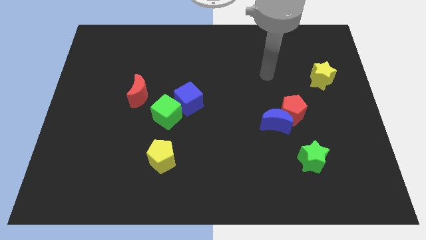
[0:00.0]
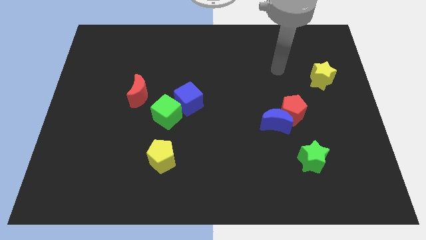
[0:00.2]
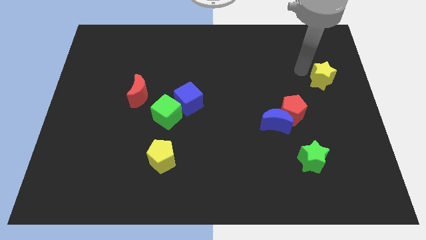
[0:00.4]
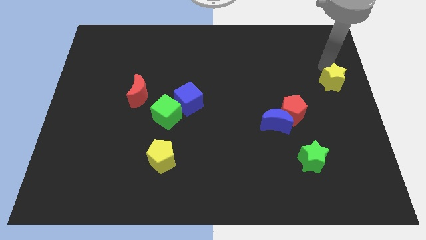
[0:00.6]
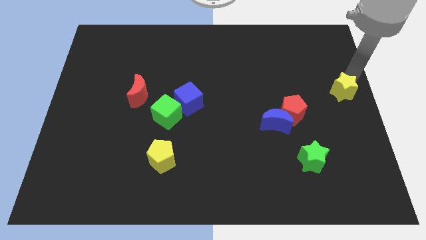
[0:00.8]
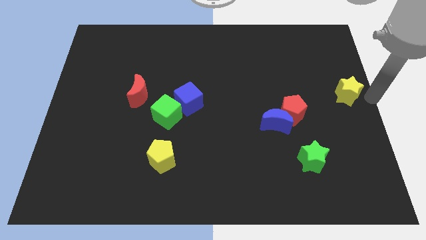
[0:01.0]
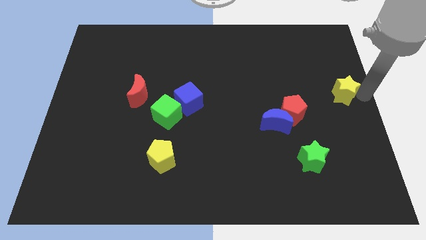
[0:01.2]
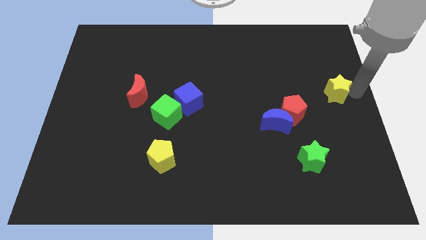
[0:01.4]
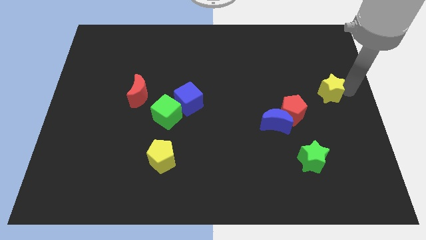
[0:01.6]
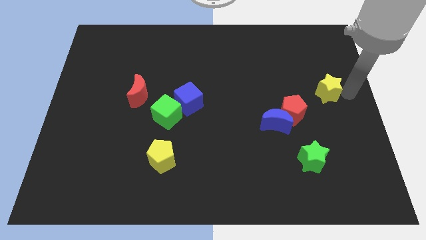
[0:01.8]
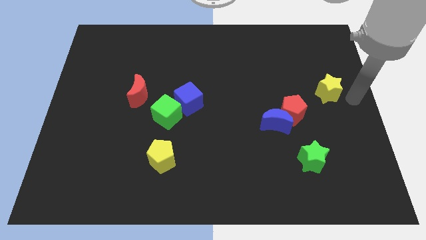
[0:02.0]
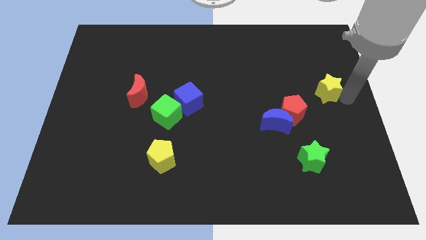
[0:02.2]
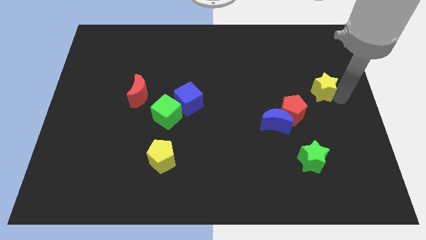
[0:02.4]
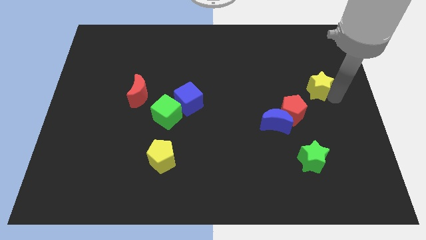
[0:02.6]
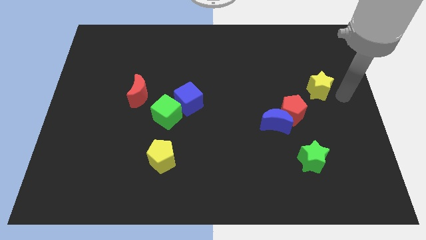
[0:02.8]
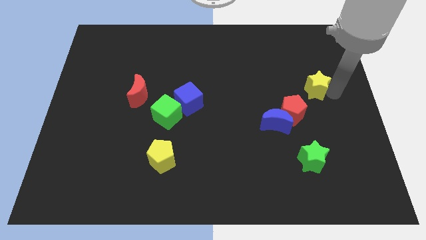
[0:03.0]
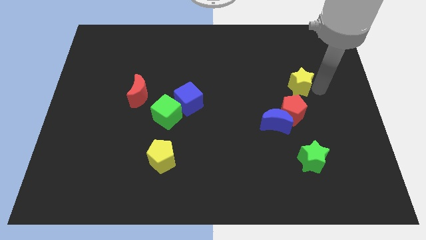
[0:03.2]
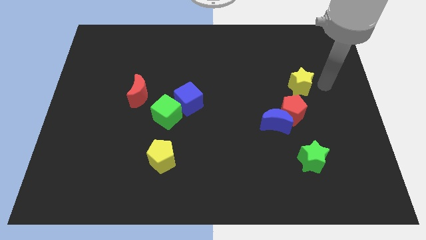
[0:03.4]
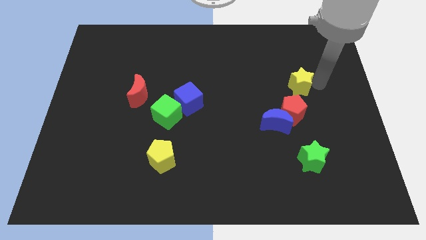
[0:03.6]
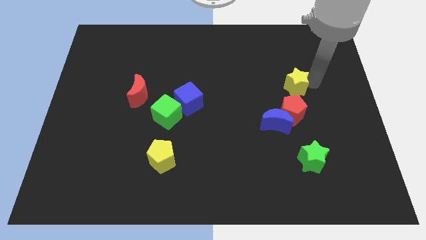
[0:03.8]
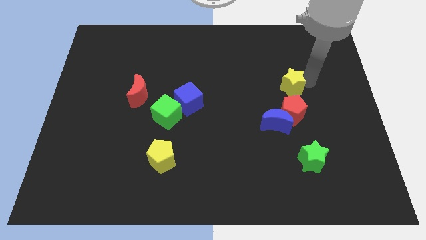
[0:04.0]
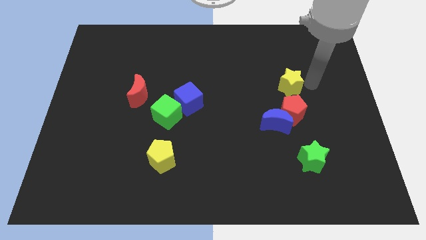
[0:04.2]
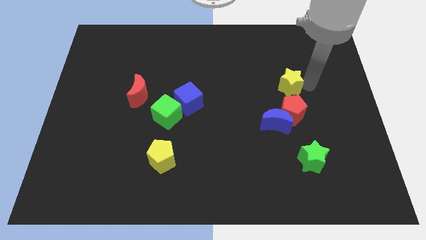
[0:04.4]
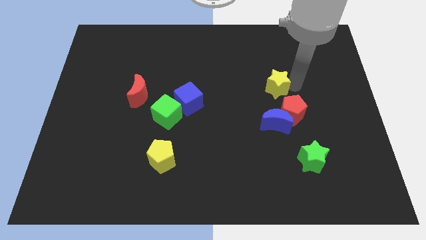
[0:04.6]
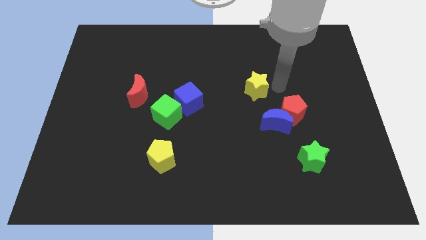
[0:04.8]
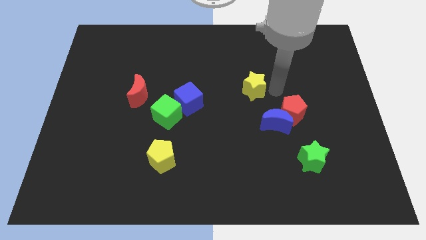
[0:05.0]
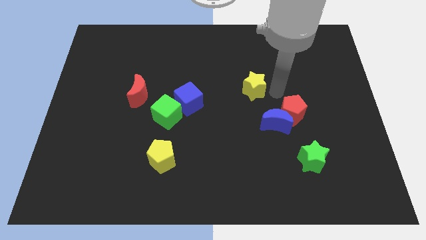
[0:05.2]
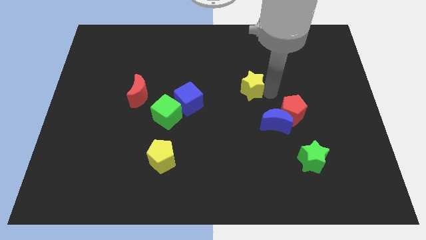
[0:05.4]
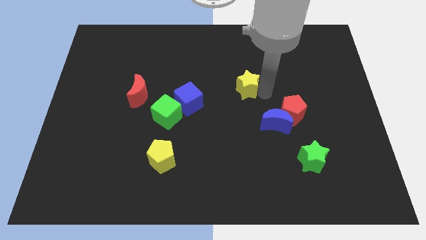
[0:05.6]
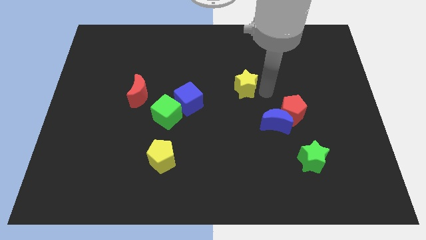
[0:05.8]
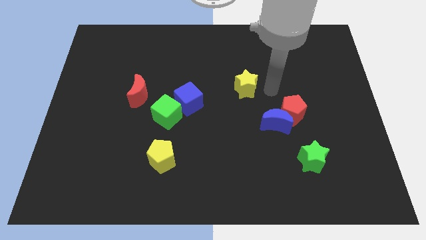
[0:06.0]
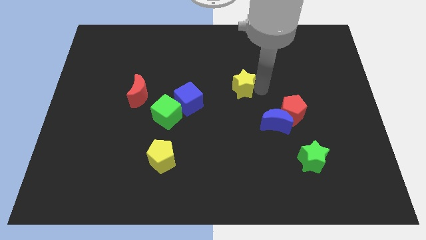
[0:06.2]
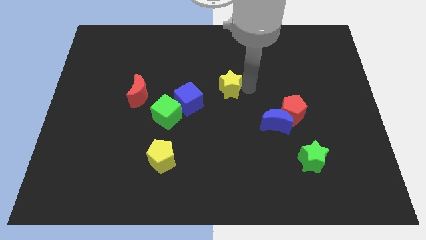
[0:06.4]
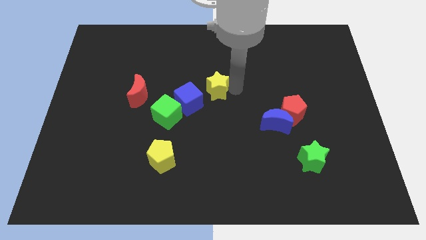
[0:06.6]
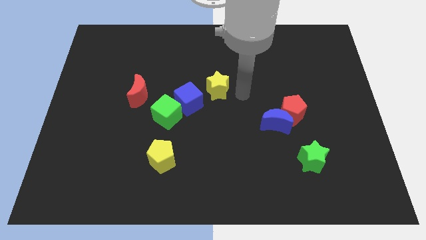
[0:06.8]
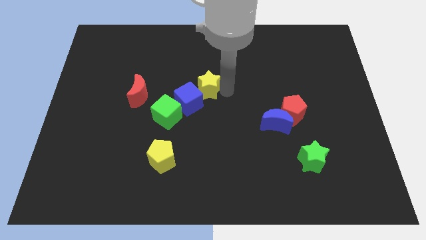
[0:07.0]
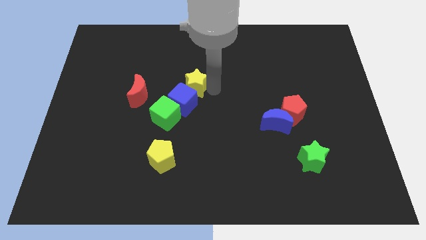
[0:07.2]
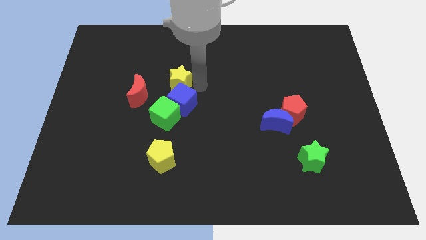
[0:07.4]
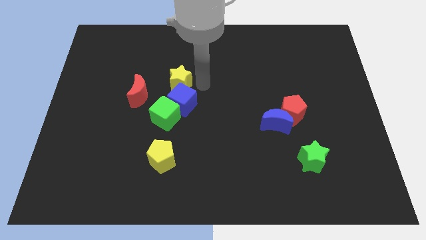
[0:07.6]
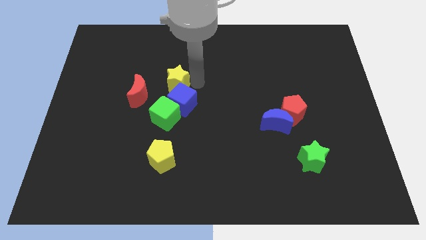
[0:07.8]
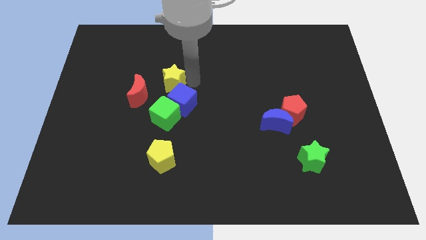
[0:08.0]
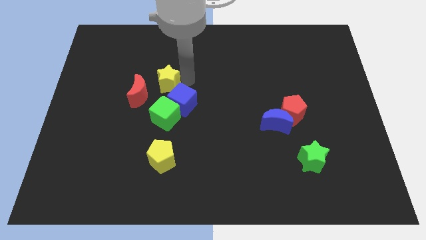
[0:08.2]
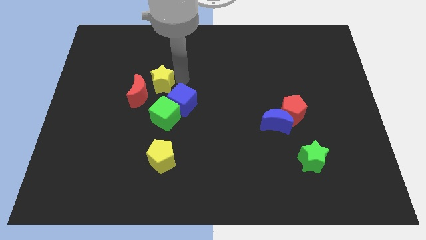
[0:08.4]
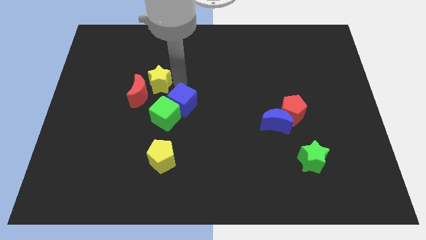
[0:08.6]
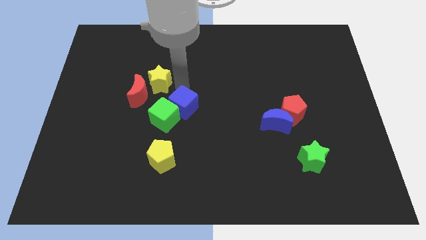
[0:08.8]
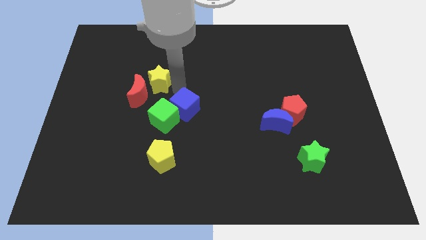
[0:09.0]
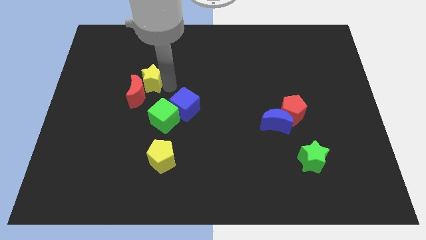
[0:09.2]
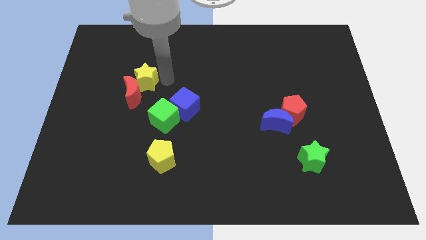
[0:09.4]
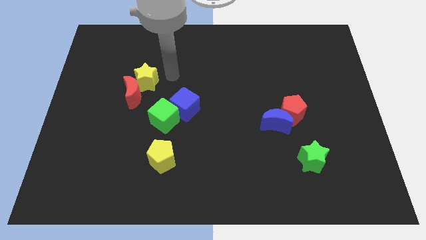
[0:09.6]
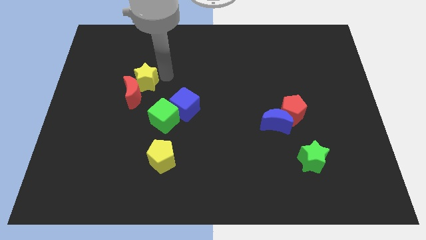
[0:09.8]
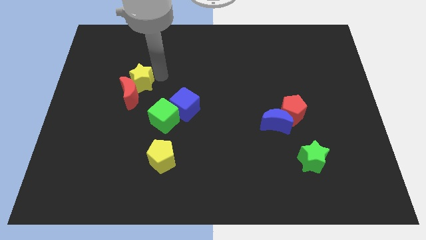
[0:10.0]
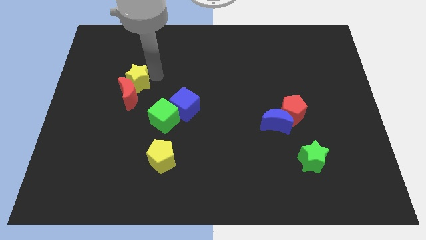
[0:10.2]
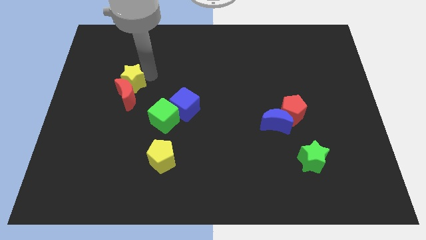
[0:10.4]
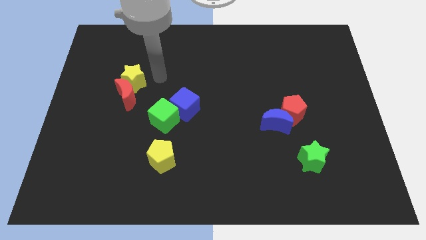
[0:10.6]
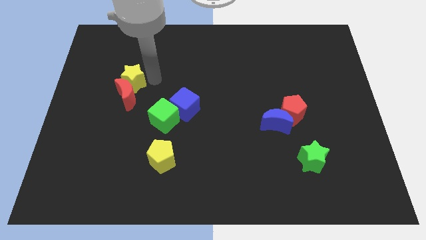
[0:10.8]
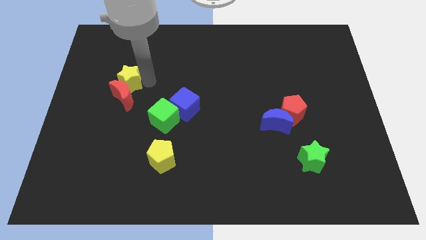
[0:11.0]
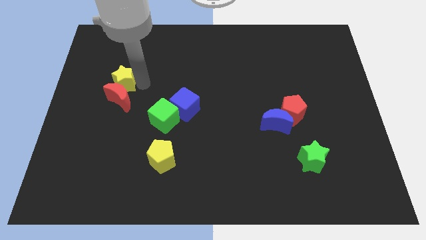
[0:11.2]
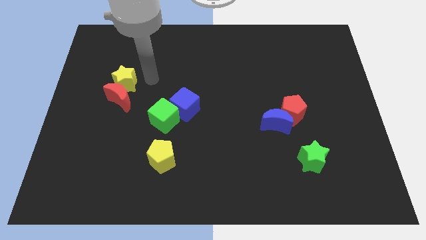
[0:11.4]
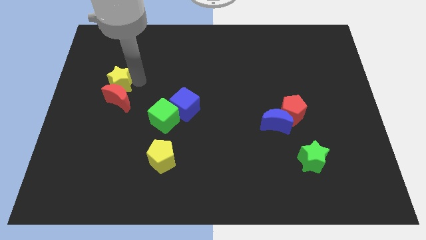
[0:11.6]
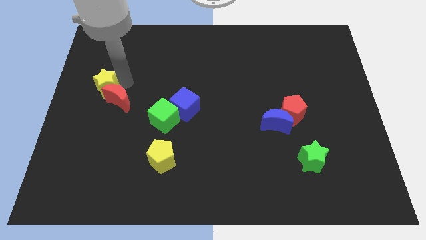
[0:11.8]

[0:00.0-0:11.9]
push the yellow star to the left side of the board

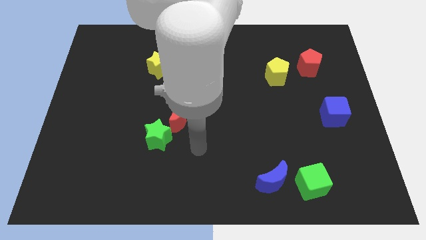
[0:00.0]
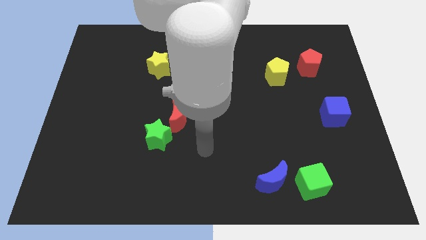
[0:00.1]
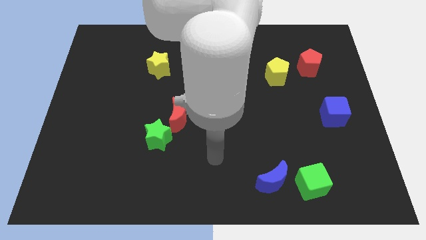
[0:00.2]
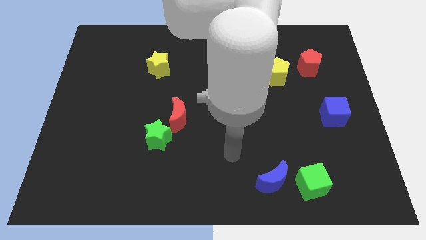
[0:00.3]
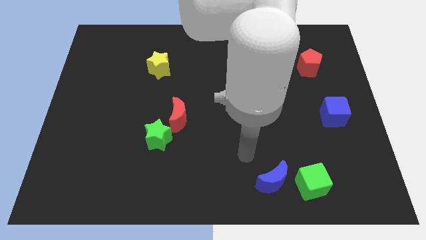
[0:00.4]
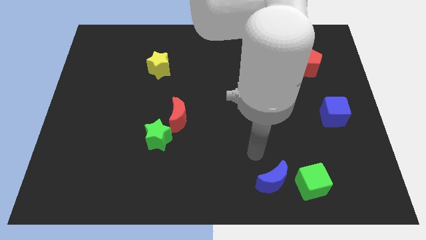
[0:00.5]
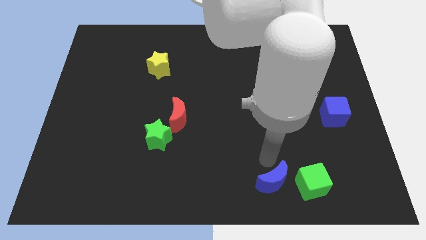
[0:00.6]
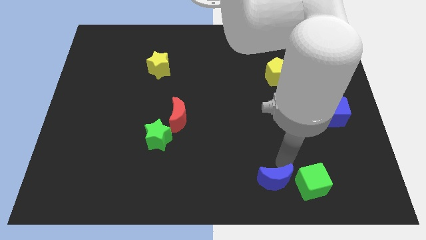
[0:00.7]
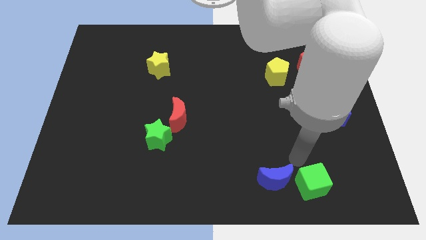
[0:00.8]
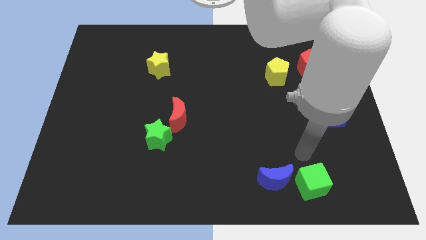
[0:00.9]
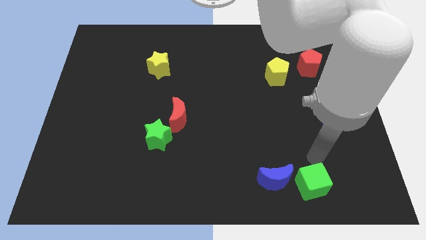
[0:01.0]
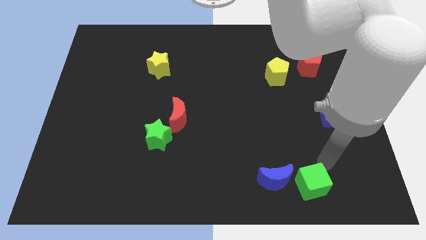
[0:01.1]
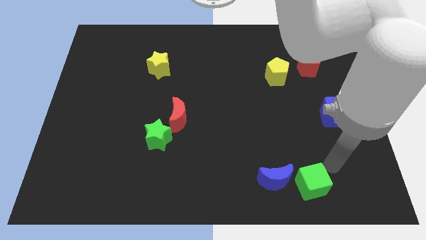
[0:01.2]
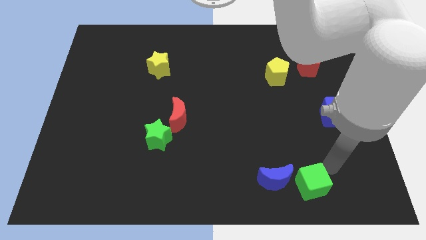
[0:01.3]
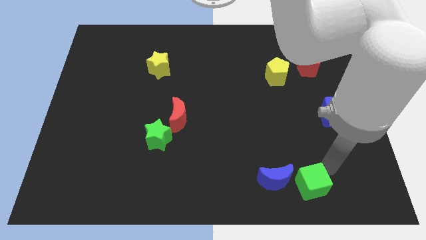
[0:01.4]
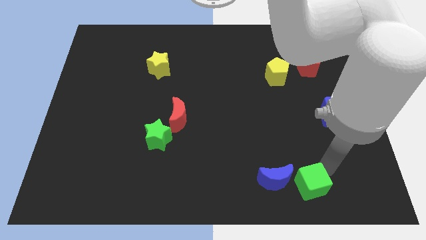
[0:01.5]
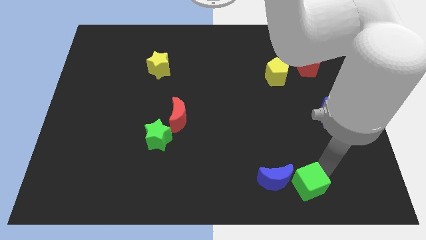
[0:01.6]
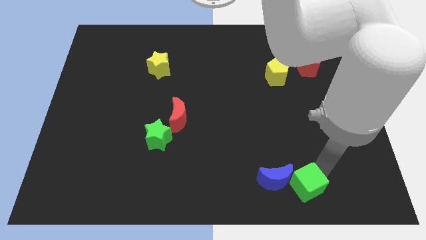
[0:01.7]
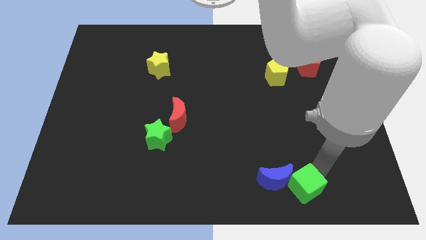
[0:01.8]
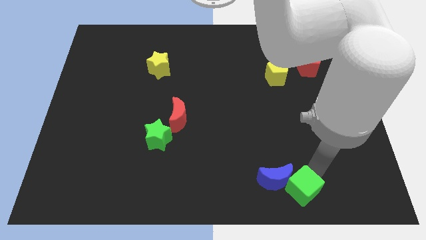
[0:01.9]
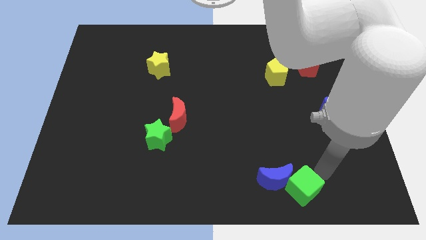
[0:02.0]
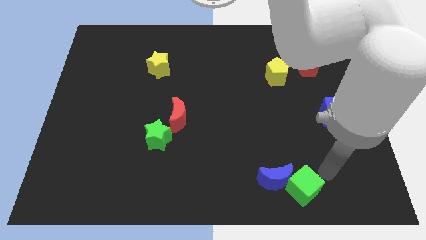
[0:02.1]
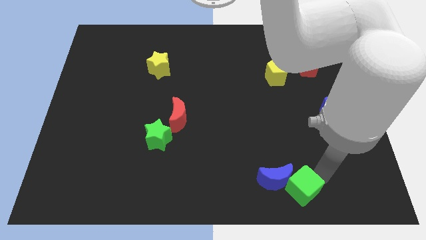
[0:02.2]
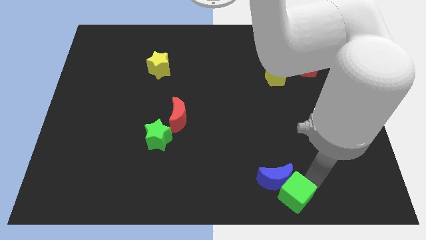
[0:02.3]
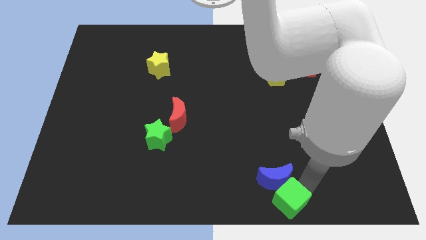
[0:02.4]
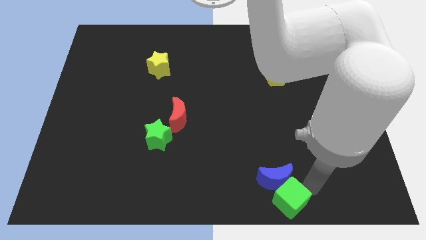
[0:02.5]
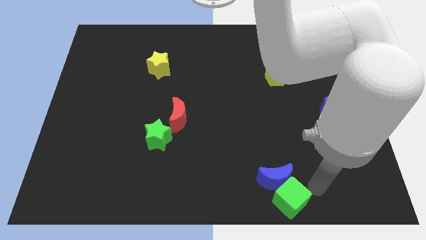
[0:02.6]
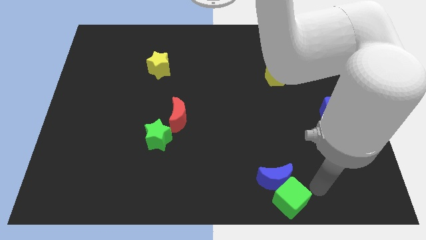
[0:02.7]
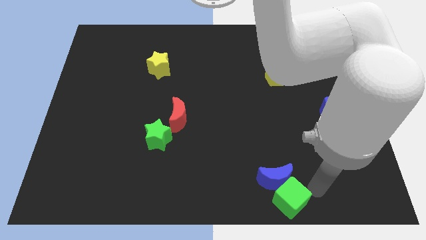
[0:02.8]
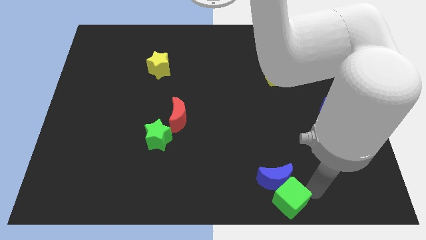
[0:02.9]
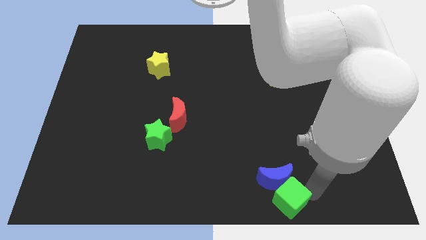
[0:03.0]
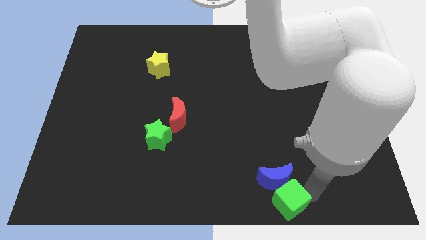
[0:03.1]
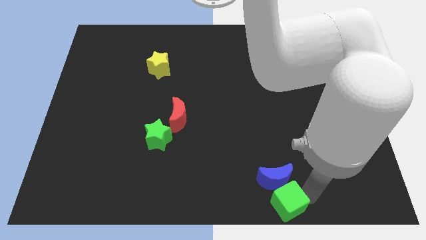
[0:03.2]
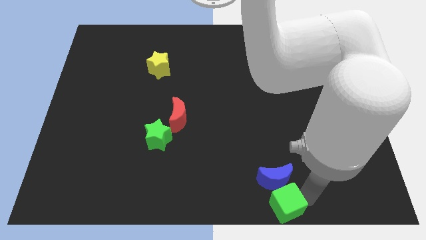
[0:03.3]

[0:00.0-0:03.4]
put the green cube to the bottom side
